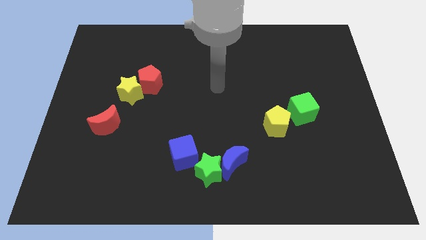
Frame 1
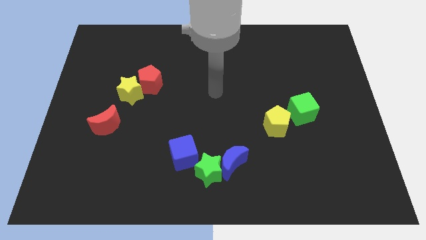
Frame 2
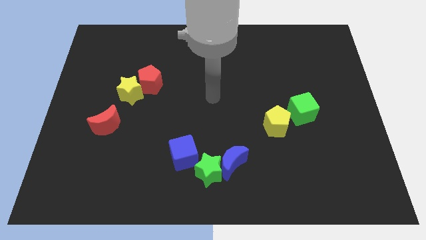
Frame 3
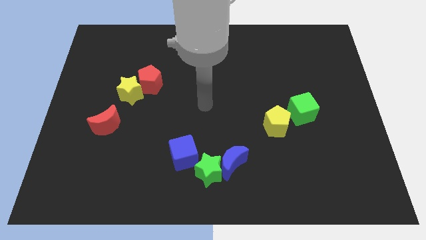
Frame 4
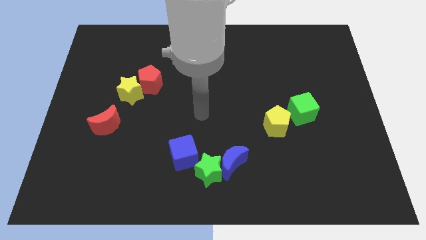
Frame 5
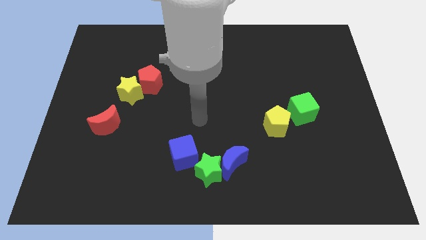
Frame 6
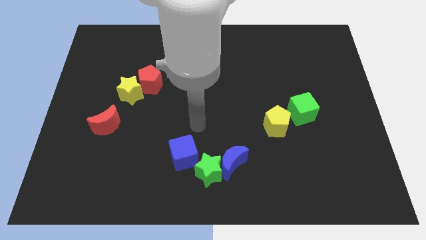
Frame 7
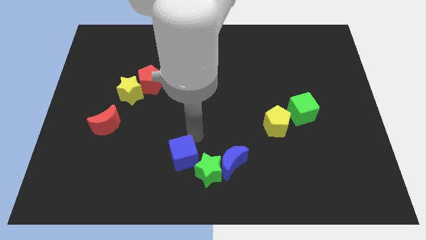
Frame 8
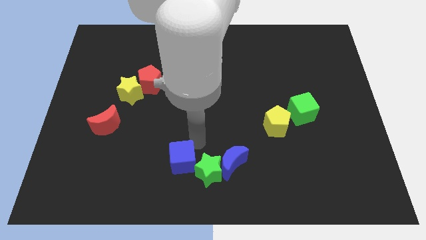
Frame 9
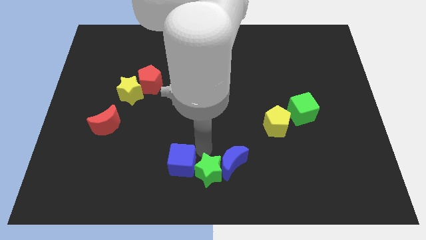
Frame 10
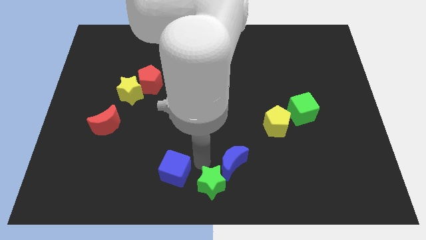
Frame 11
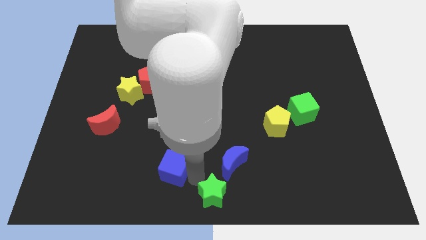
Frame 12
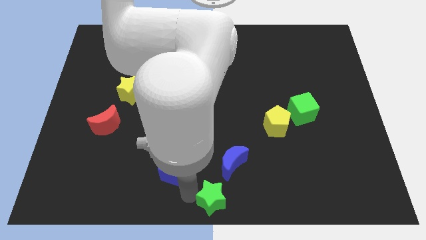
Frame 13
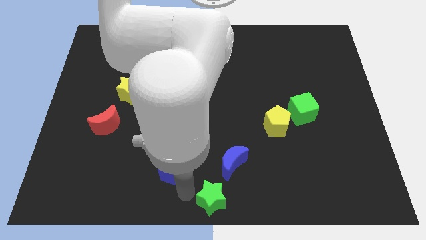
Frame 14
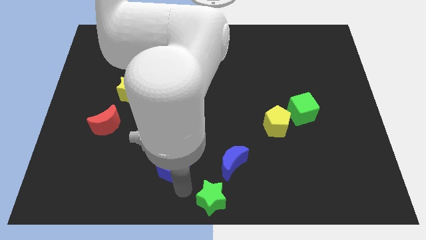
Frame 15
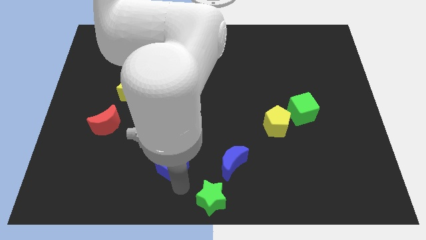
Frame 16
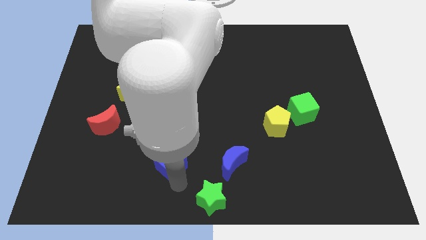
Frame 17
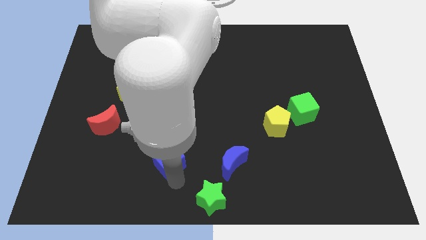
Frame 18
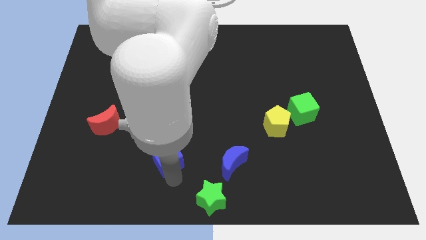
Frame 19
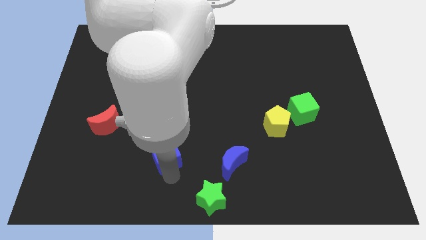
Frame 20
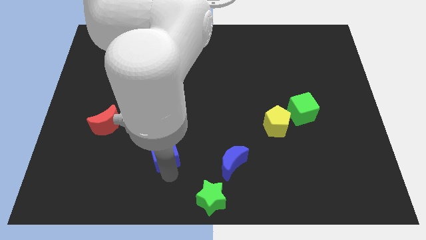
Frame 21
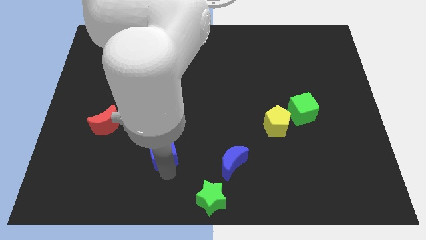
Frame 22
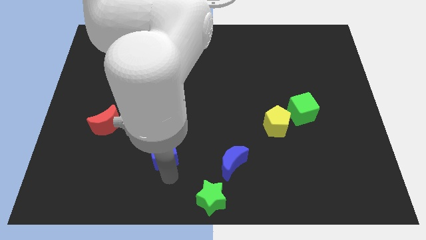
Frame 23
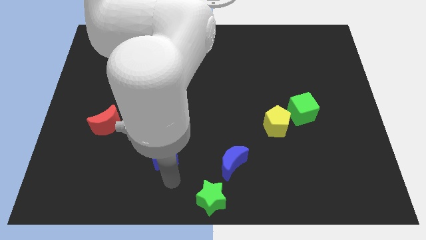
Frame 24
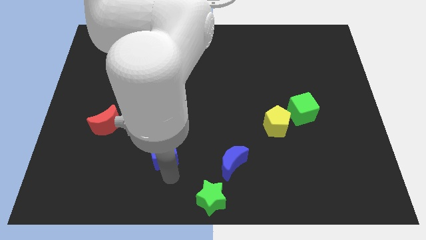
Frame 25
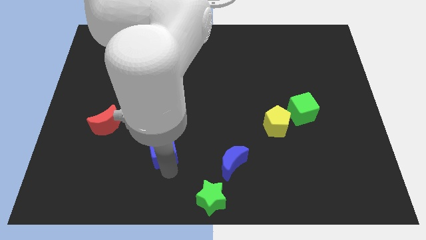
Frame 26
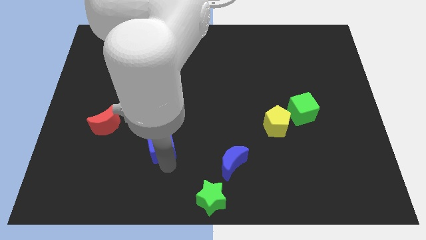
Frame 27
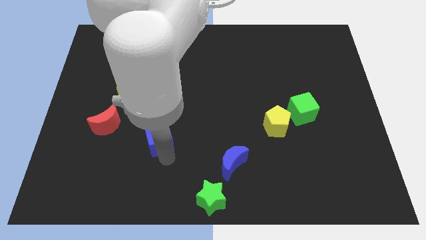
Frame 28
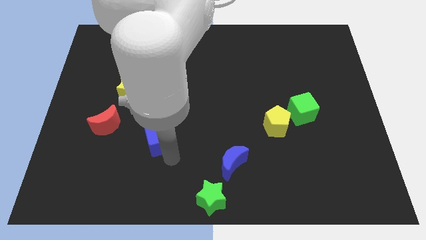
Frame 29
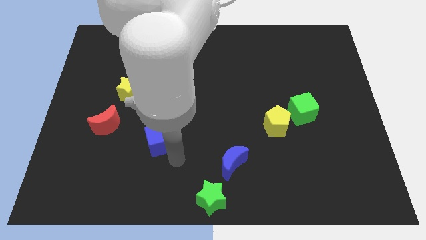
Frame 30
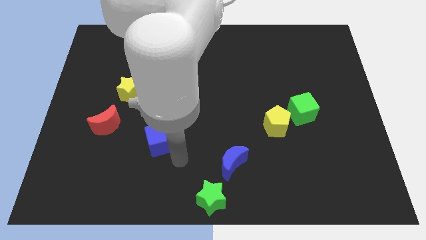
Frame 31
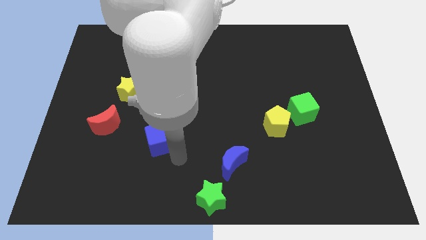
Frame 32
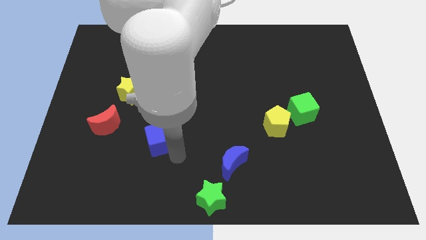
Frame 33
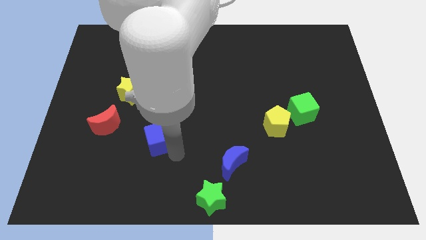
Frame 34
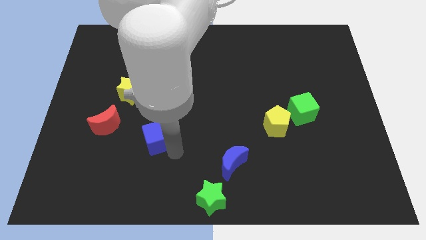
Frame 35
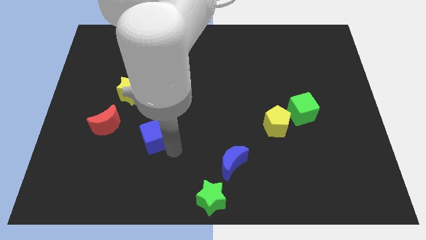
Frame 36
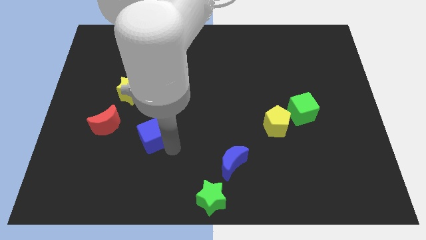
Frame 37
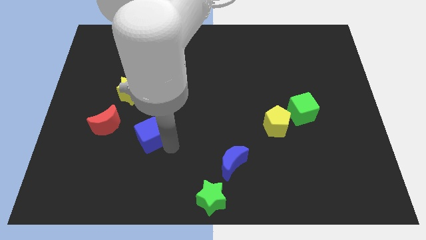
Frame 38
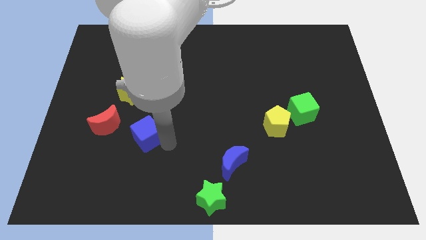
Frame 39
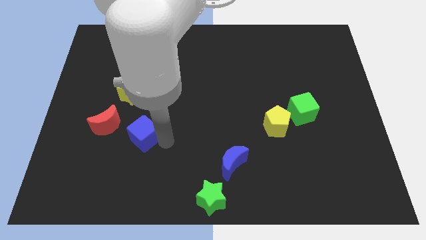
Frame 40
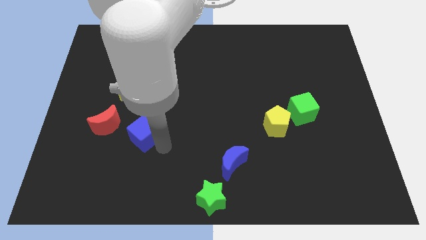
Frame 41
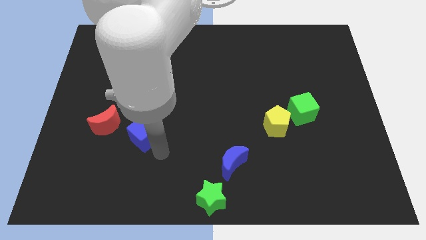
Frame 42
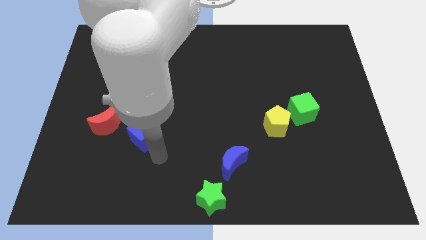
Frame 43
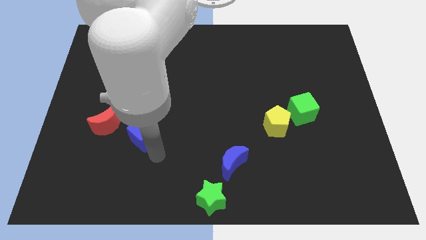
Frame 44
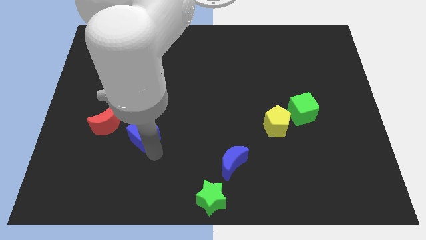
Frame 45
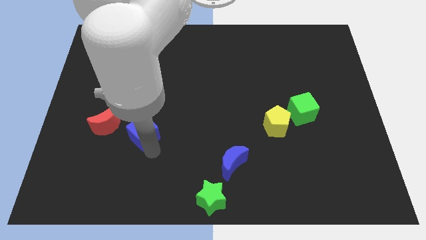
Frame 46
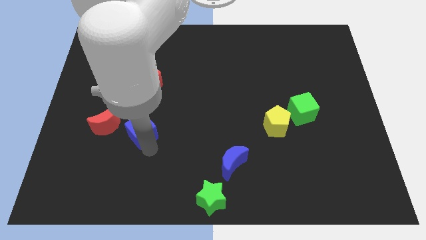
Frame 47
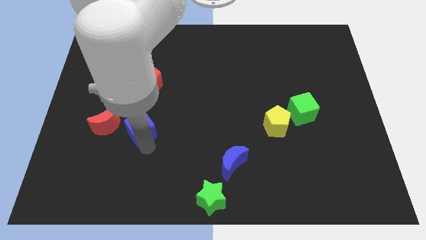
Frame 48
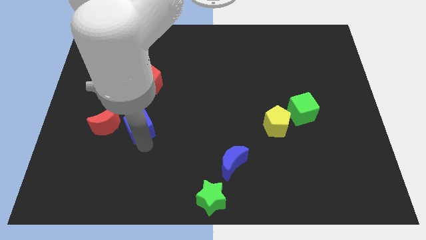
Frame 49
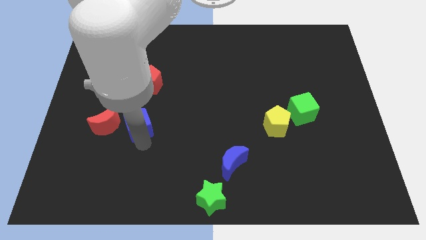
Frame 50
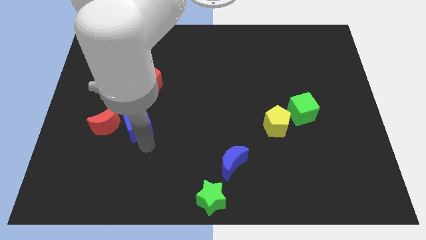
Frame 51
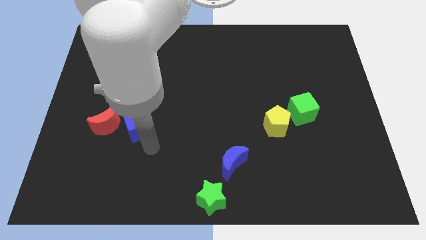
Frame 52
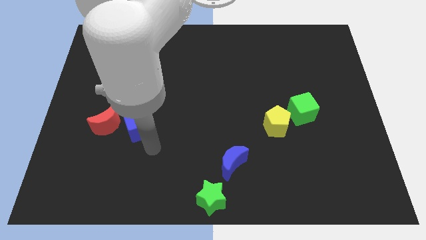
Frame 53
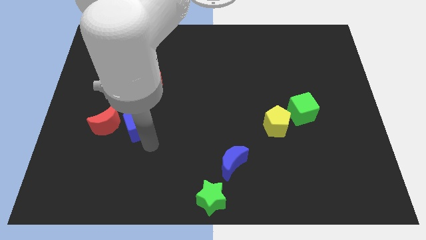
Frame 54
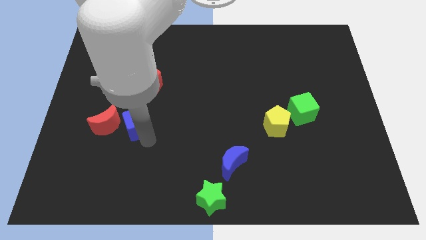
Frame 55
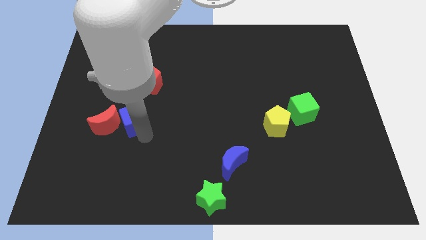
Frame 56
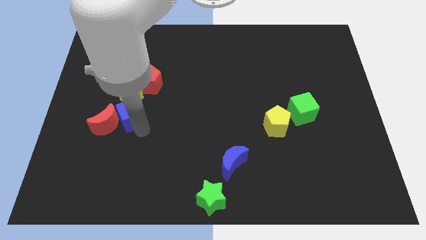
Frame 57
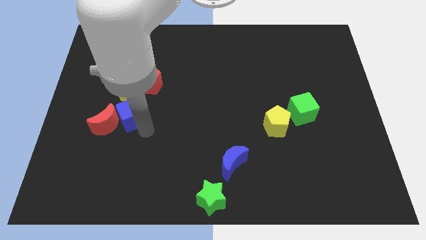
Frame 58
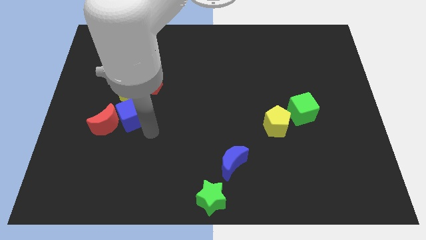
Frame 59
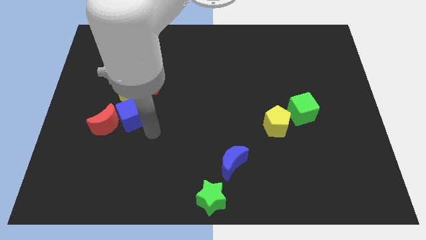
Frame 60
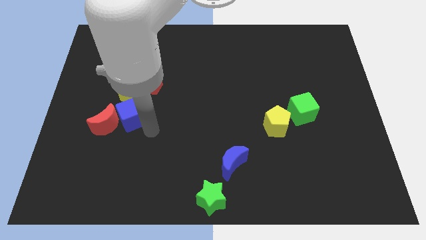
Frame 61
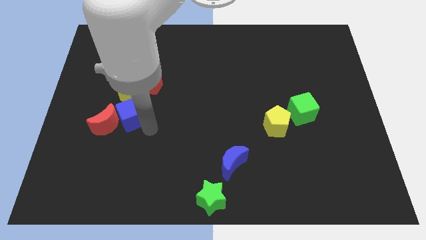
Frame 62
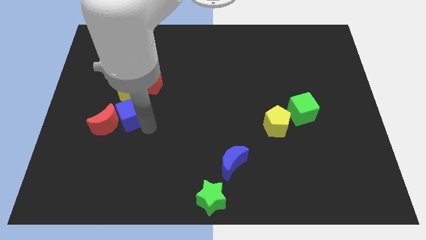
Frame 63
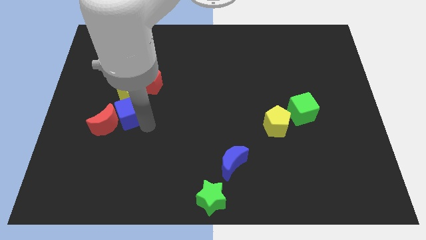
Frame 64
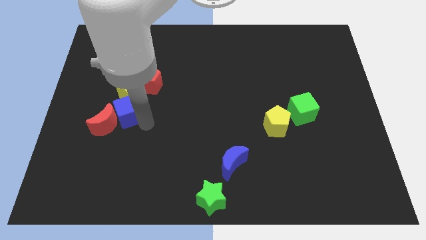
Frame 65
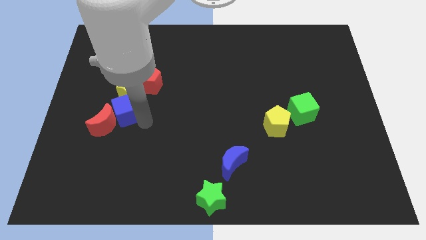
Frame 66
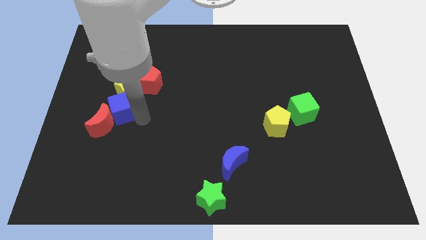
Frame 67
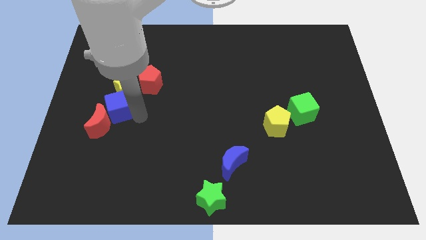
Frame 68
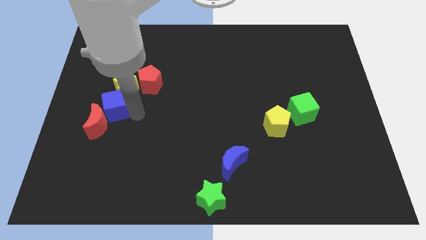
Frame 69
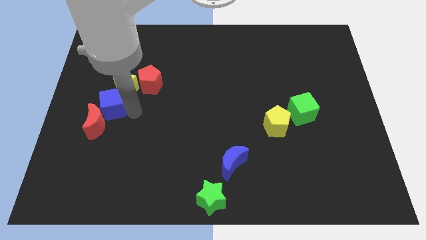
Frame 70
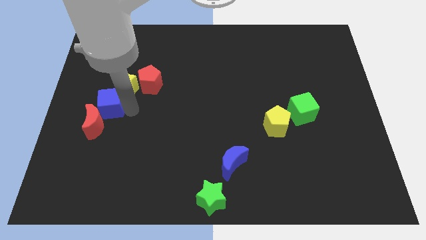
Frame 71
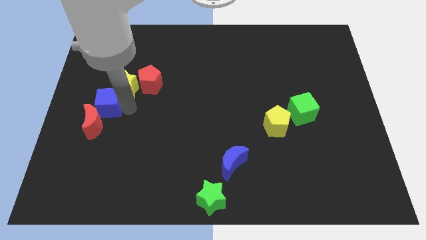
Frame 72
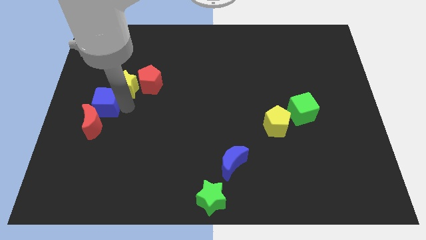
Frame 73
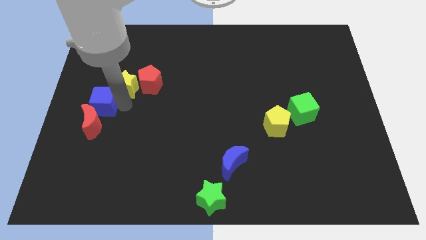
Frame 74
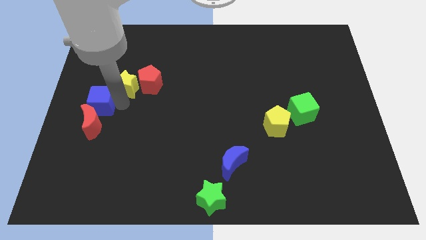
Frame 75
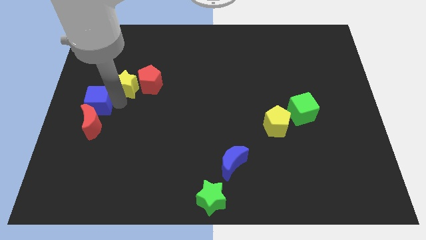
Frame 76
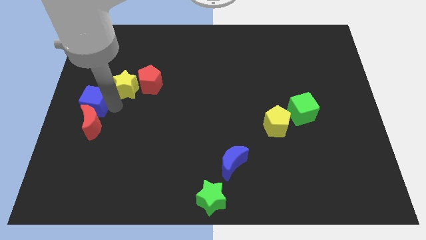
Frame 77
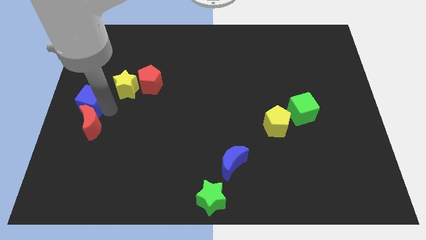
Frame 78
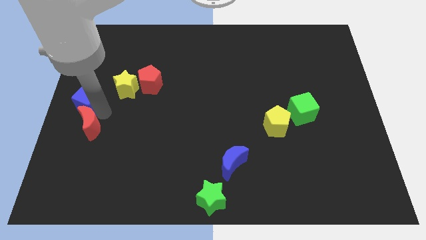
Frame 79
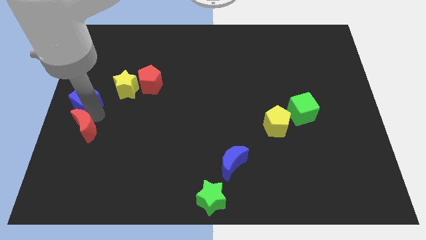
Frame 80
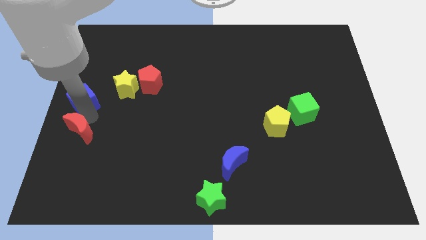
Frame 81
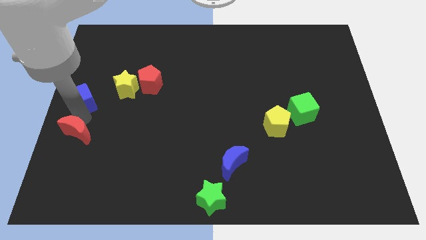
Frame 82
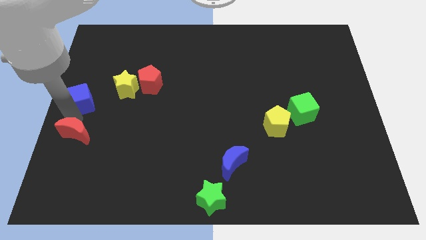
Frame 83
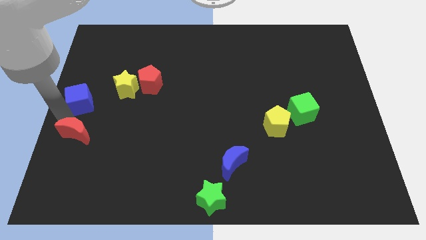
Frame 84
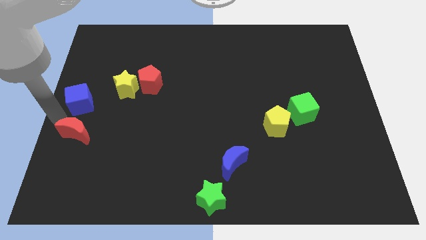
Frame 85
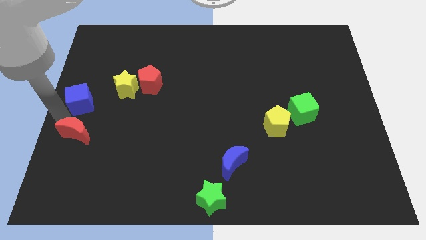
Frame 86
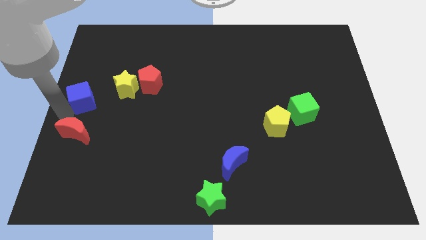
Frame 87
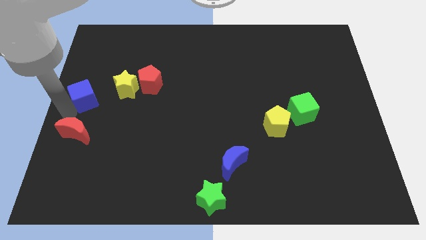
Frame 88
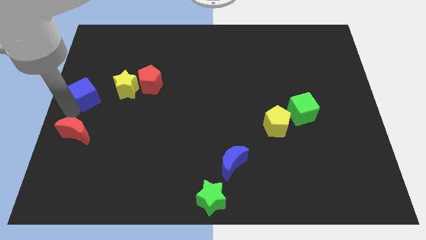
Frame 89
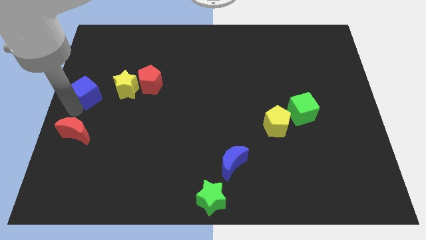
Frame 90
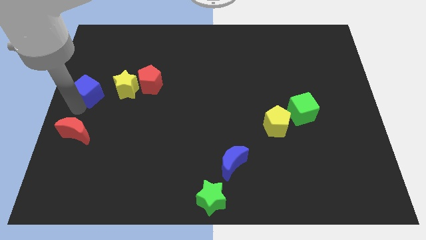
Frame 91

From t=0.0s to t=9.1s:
put the blue cube to the left of the red pentagon
